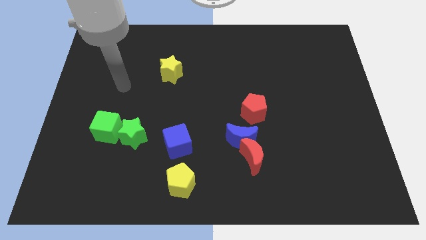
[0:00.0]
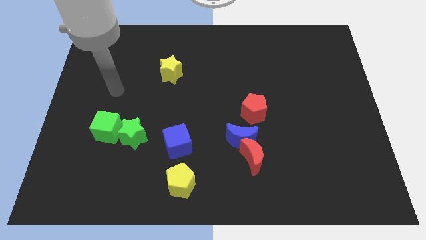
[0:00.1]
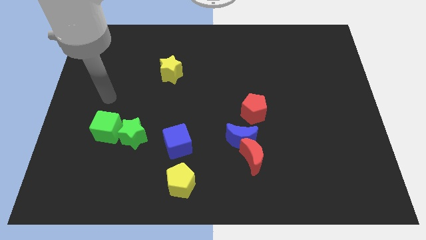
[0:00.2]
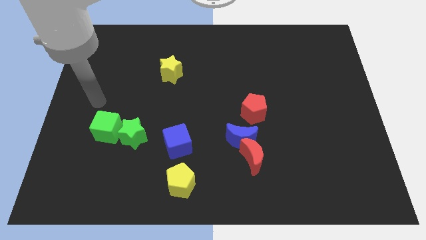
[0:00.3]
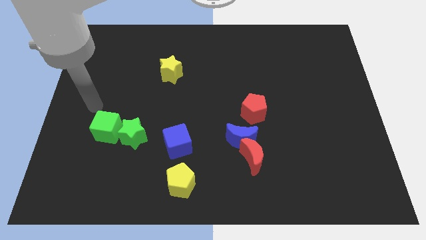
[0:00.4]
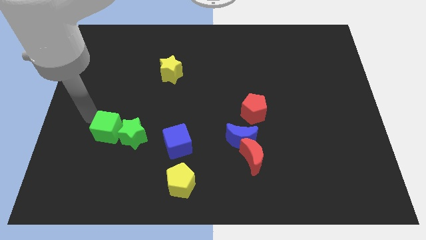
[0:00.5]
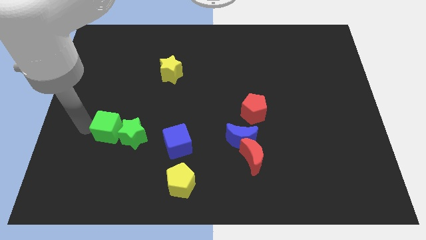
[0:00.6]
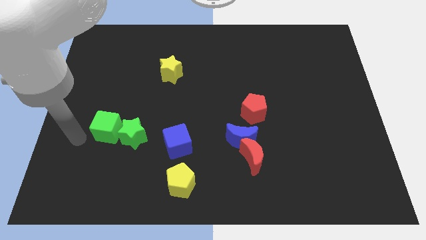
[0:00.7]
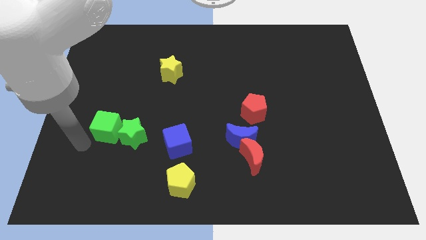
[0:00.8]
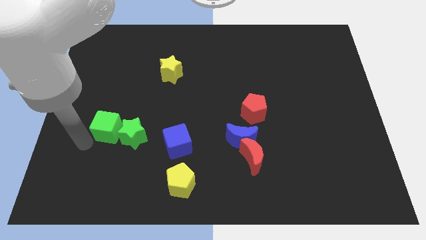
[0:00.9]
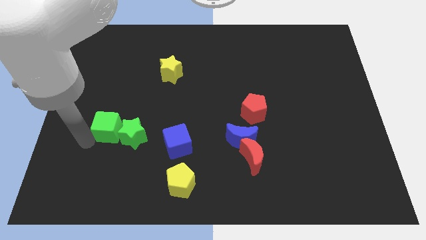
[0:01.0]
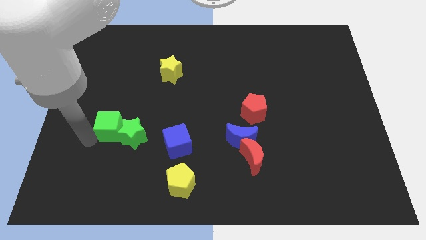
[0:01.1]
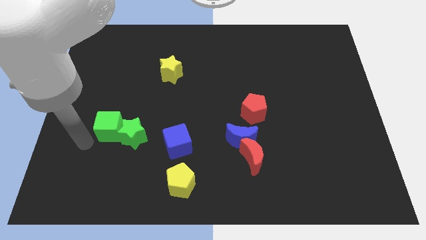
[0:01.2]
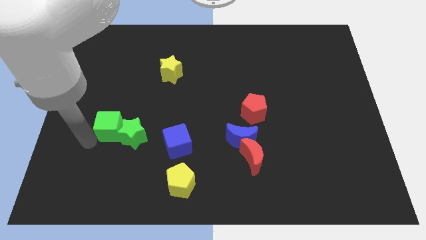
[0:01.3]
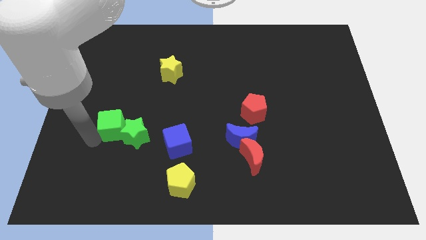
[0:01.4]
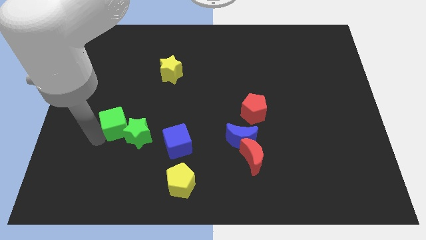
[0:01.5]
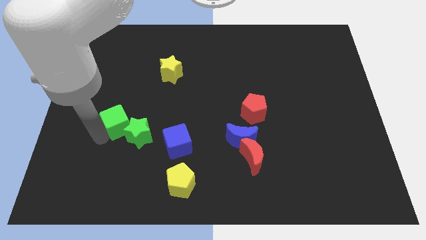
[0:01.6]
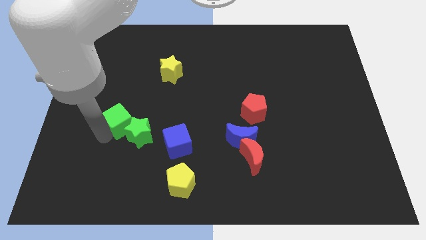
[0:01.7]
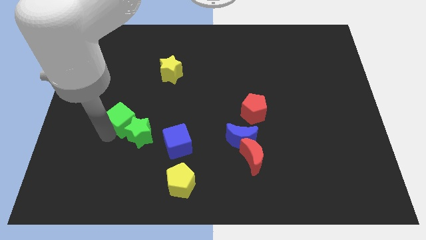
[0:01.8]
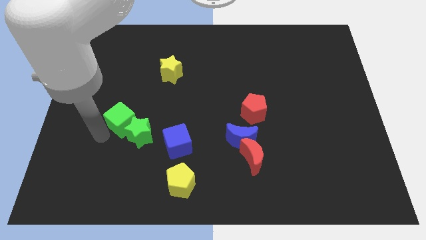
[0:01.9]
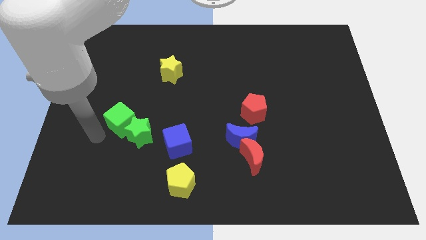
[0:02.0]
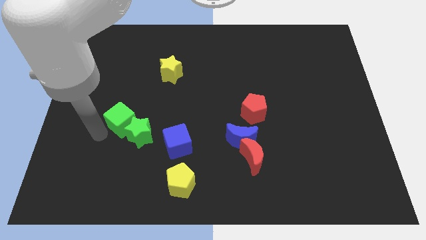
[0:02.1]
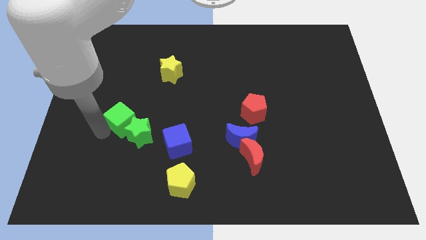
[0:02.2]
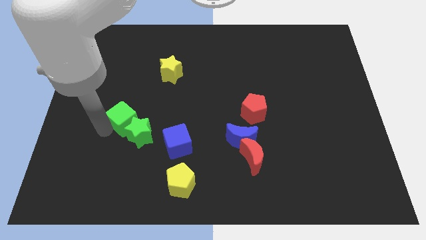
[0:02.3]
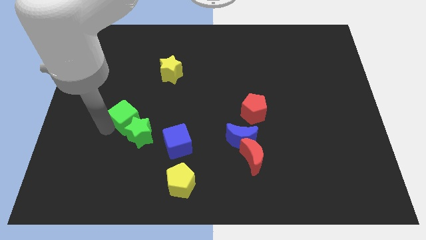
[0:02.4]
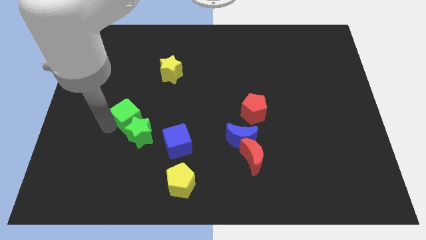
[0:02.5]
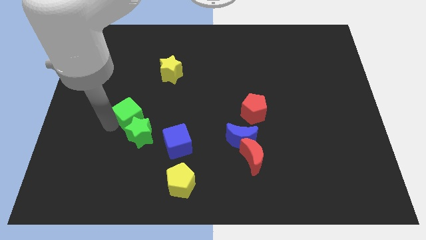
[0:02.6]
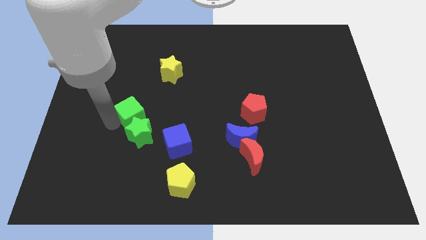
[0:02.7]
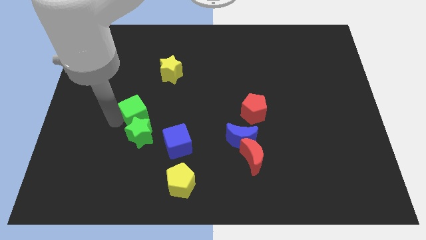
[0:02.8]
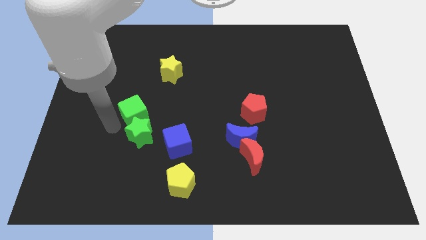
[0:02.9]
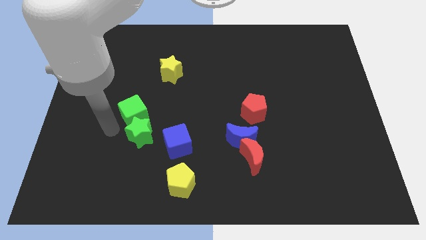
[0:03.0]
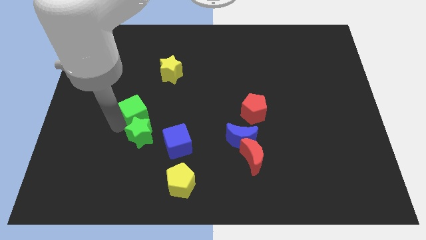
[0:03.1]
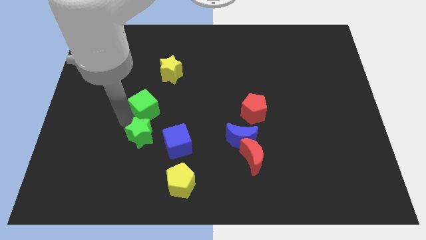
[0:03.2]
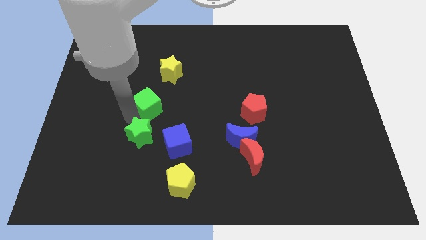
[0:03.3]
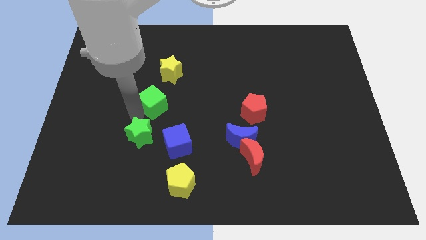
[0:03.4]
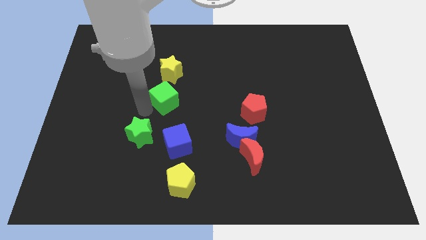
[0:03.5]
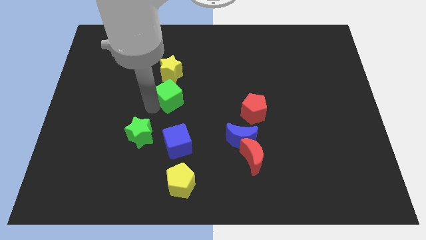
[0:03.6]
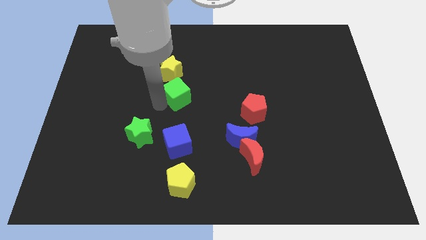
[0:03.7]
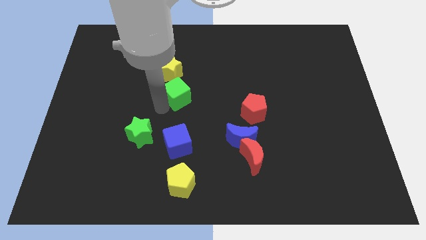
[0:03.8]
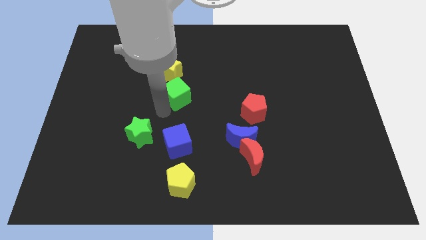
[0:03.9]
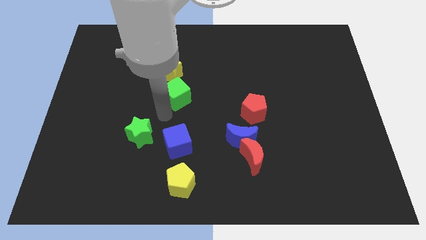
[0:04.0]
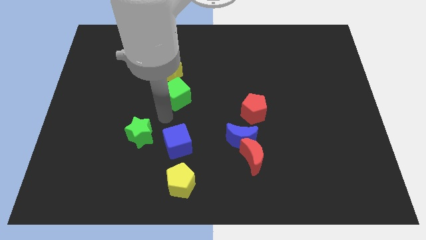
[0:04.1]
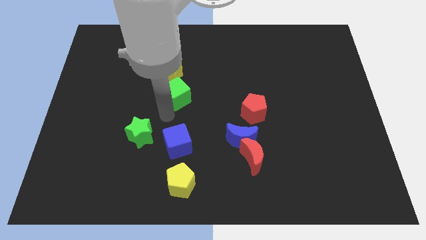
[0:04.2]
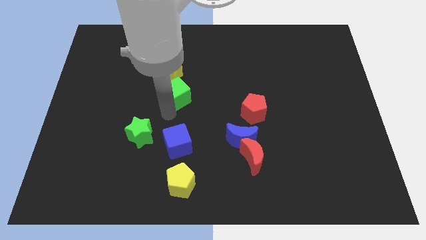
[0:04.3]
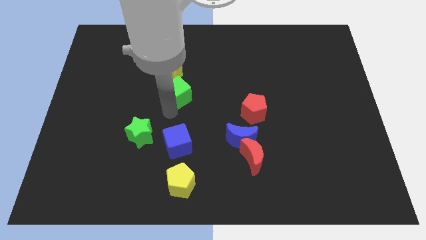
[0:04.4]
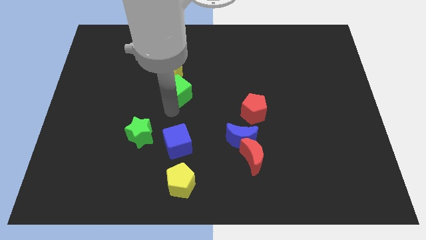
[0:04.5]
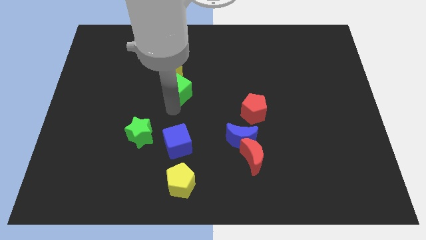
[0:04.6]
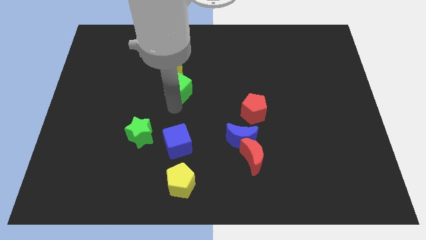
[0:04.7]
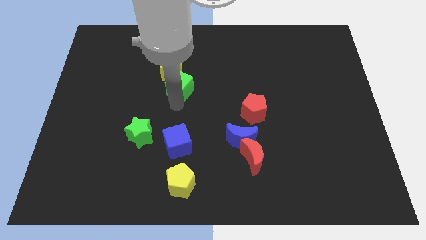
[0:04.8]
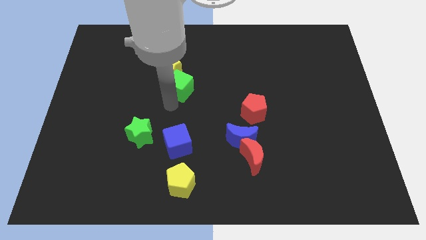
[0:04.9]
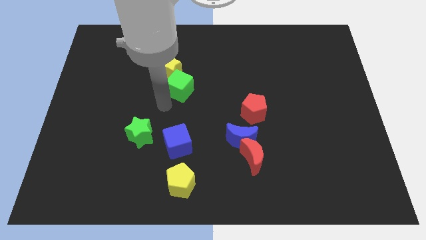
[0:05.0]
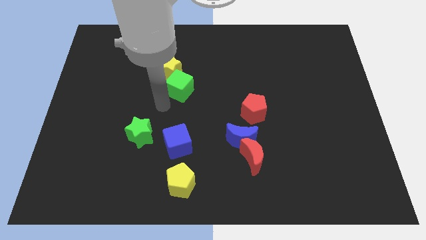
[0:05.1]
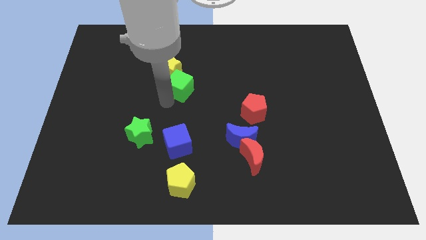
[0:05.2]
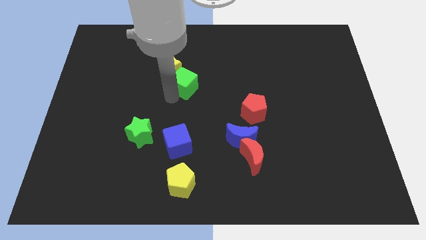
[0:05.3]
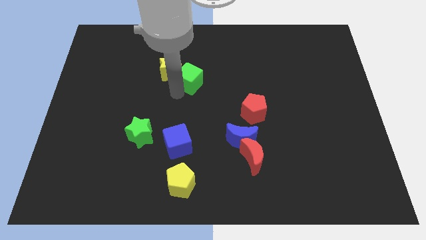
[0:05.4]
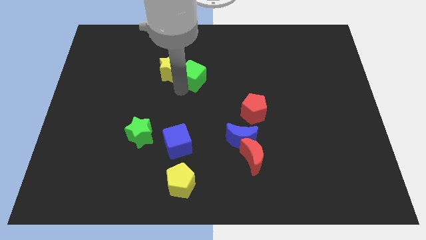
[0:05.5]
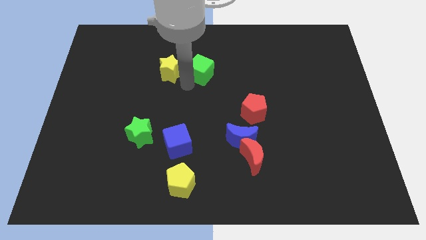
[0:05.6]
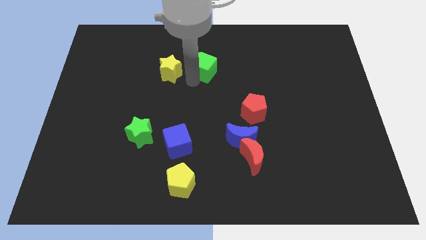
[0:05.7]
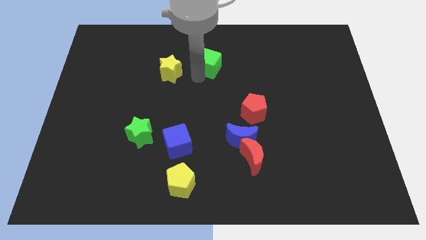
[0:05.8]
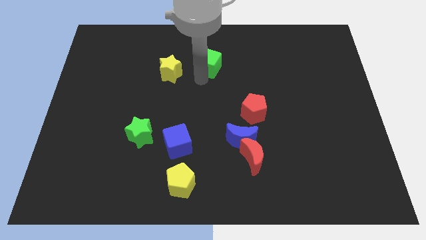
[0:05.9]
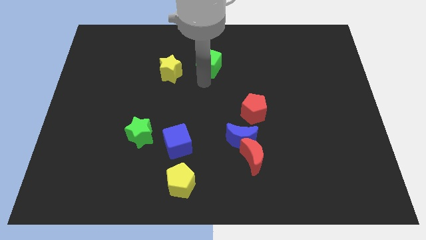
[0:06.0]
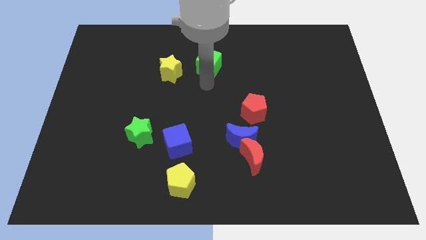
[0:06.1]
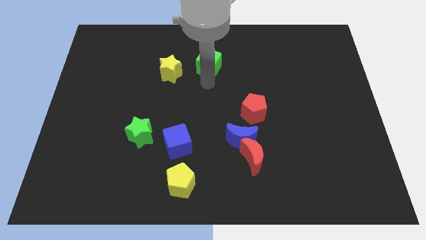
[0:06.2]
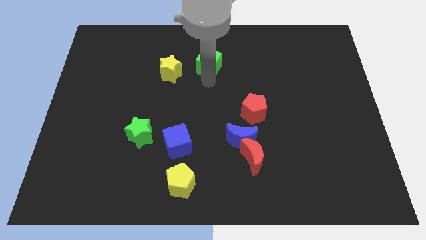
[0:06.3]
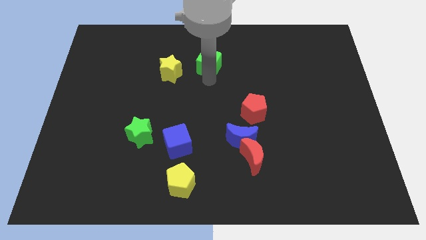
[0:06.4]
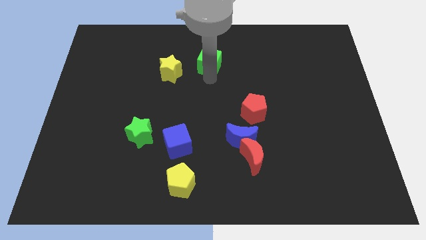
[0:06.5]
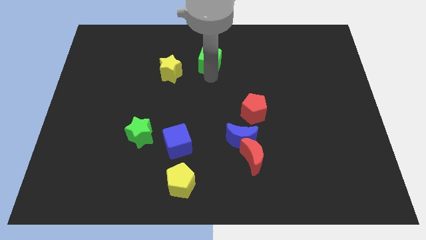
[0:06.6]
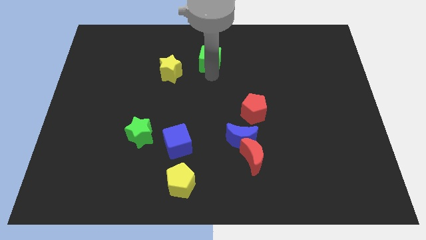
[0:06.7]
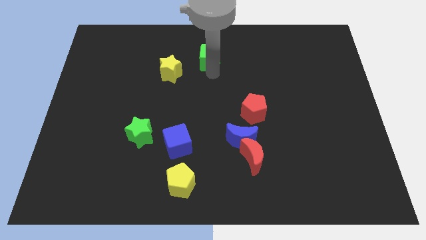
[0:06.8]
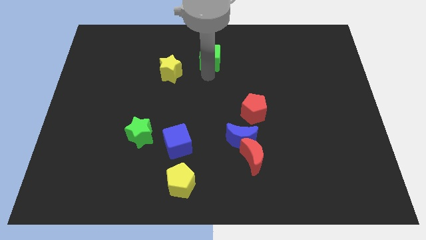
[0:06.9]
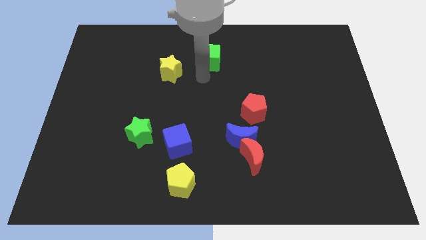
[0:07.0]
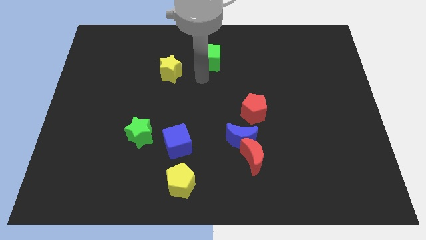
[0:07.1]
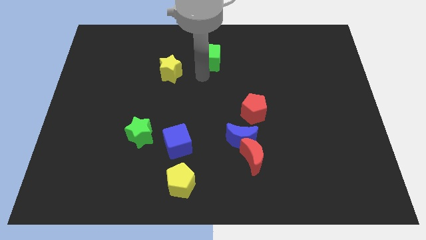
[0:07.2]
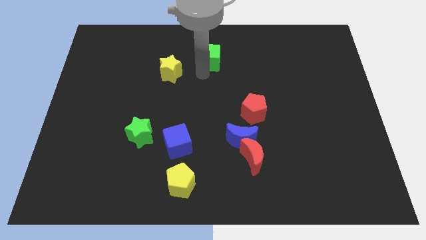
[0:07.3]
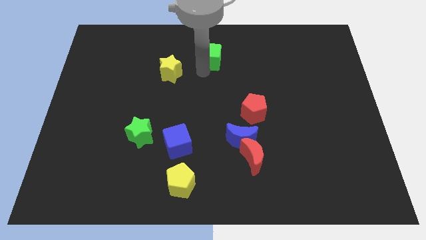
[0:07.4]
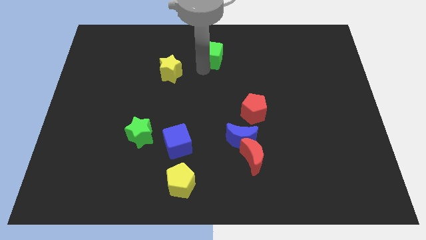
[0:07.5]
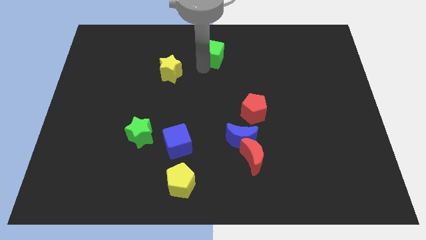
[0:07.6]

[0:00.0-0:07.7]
push the green cube to the towards your base
